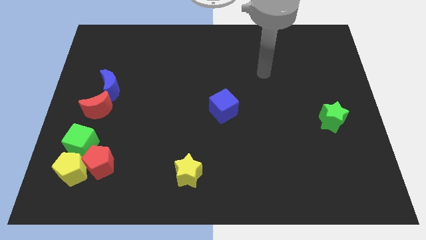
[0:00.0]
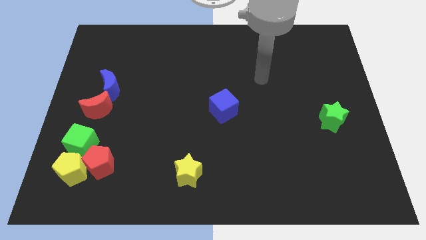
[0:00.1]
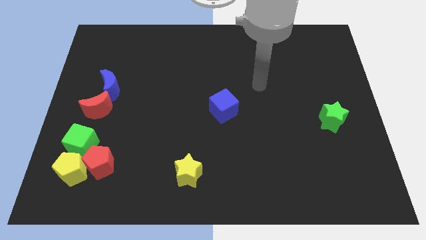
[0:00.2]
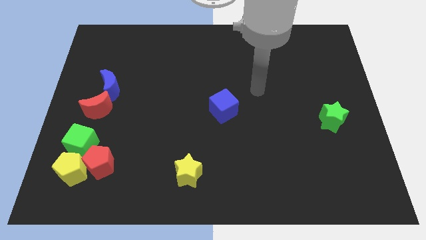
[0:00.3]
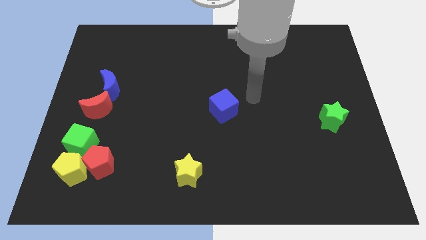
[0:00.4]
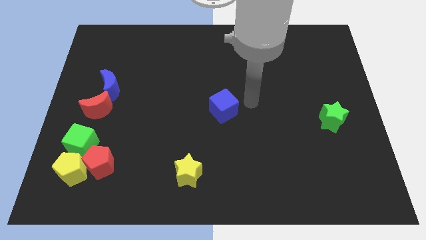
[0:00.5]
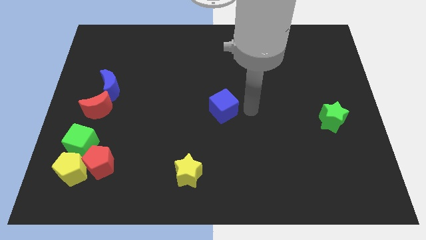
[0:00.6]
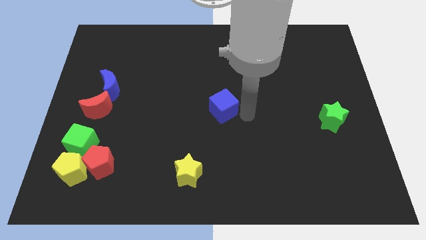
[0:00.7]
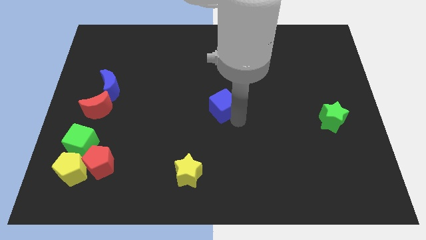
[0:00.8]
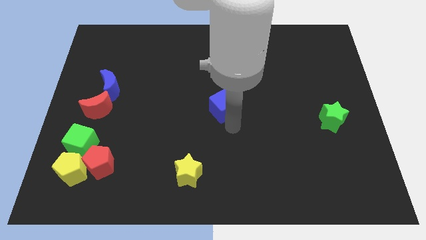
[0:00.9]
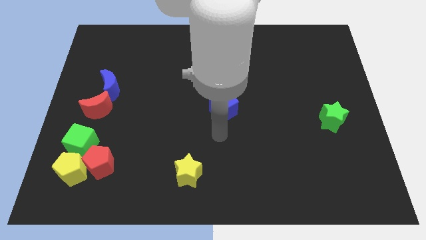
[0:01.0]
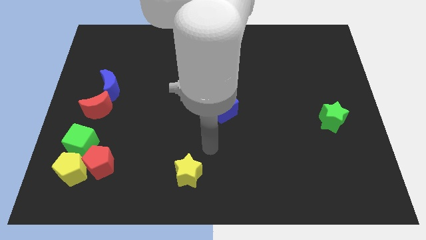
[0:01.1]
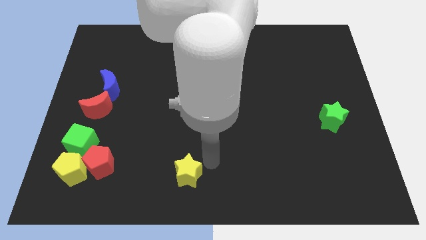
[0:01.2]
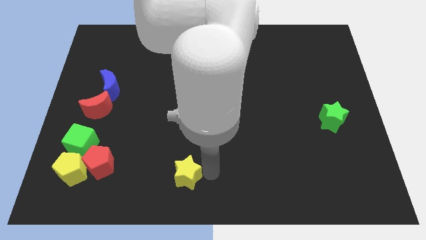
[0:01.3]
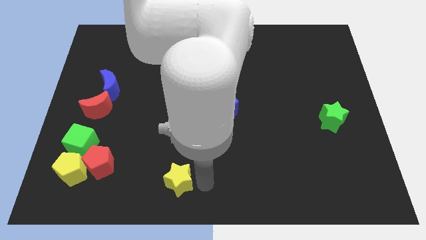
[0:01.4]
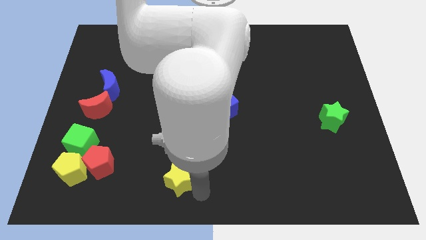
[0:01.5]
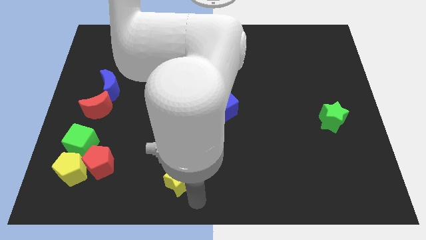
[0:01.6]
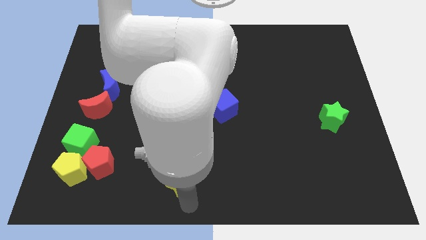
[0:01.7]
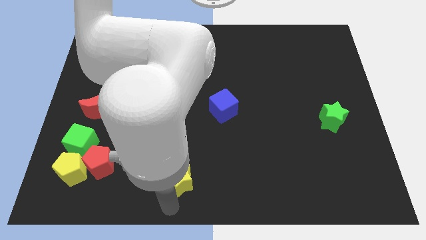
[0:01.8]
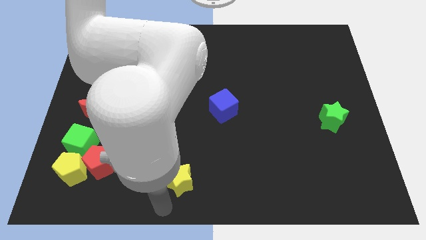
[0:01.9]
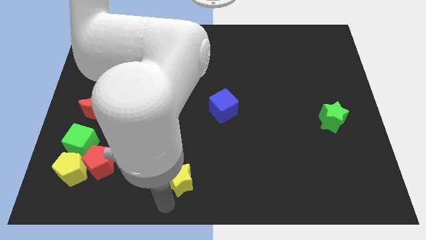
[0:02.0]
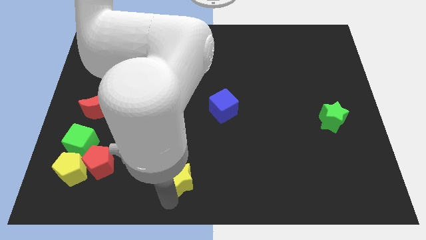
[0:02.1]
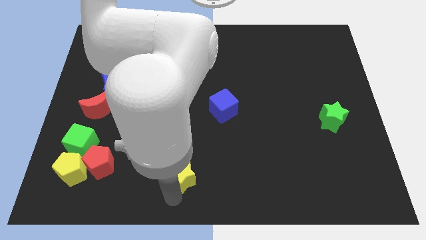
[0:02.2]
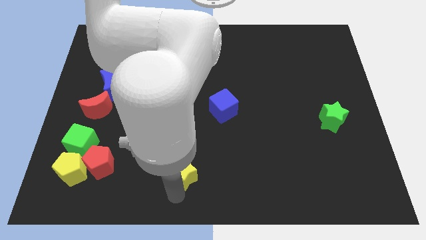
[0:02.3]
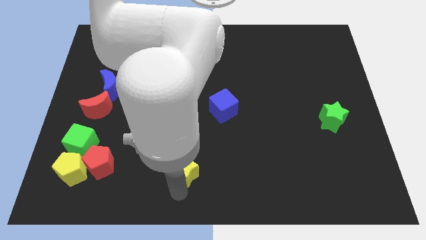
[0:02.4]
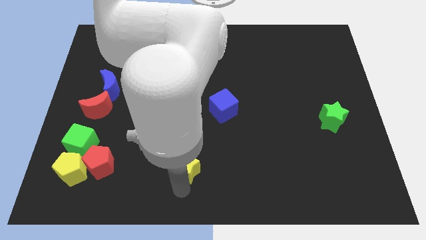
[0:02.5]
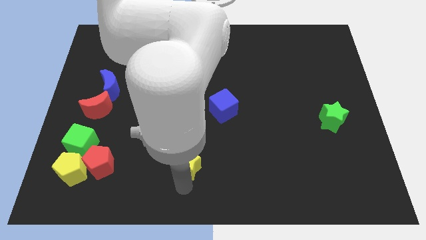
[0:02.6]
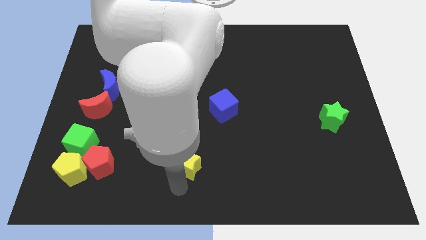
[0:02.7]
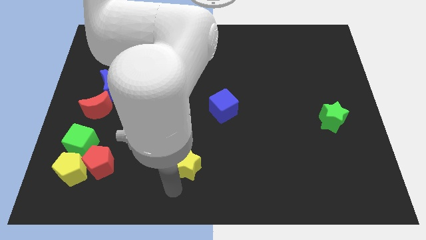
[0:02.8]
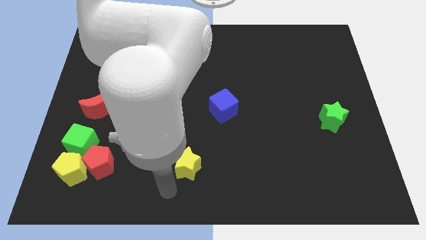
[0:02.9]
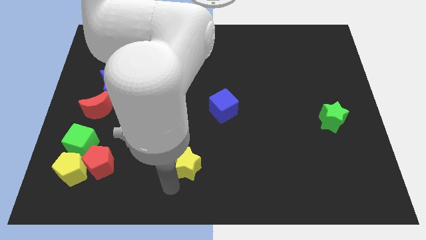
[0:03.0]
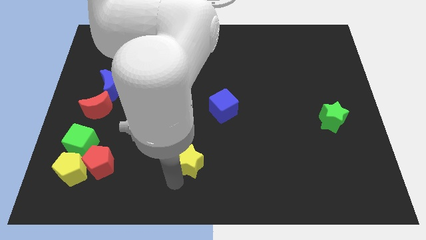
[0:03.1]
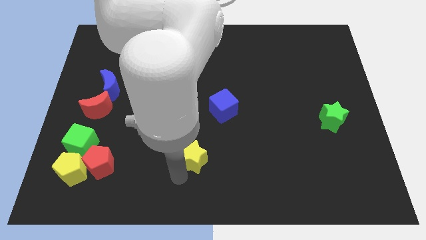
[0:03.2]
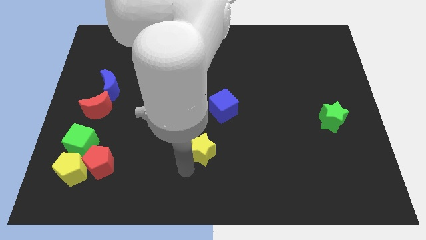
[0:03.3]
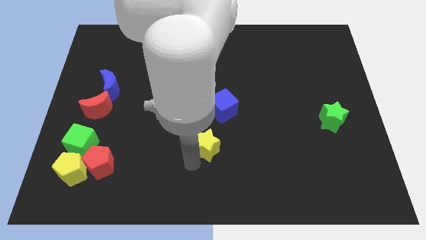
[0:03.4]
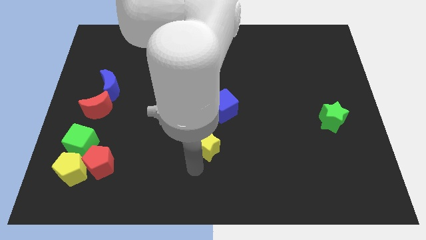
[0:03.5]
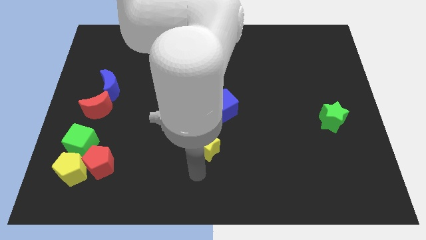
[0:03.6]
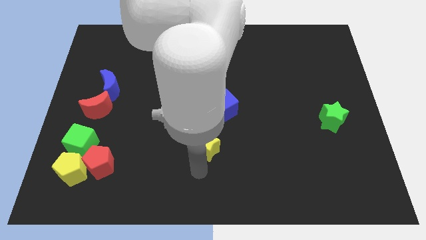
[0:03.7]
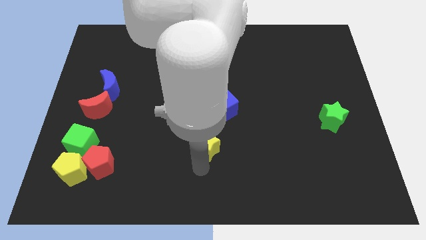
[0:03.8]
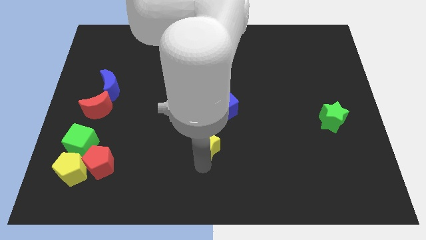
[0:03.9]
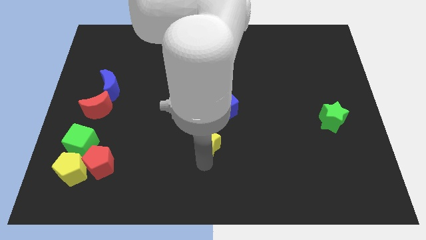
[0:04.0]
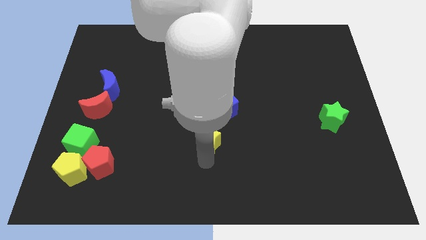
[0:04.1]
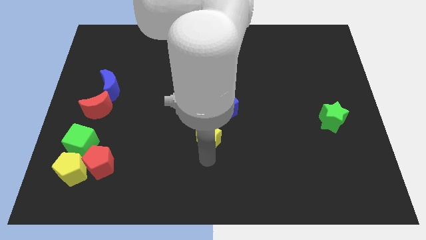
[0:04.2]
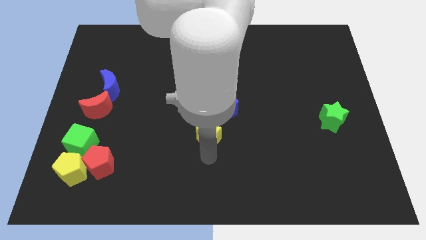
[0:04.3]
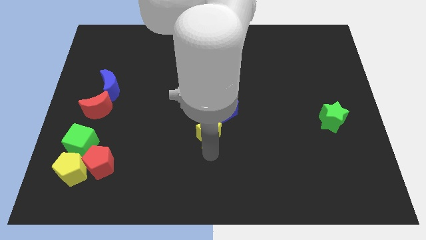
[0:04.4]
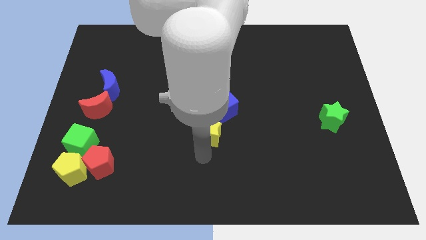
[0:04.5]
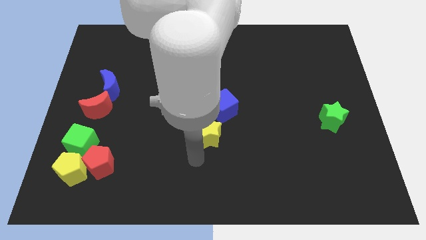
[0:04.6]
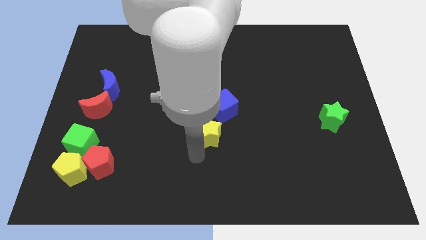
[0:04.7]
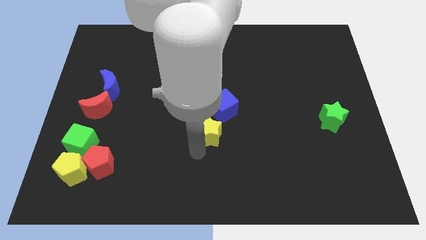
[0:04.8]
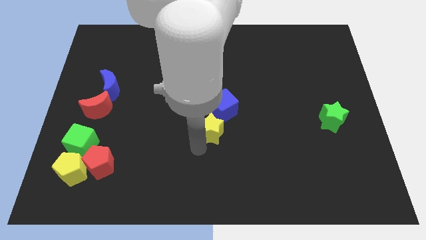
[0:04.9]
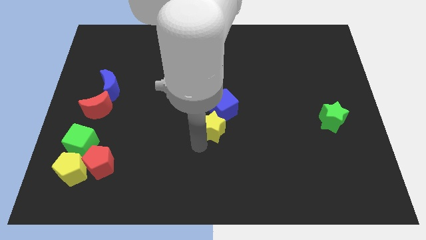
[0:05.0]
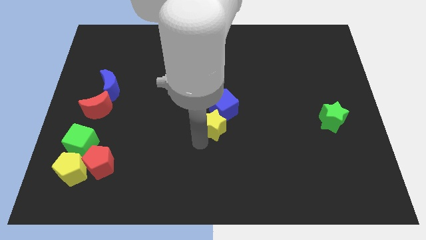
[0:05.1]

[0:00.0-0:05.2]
push the yellow star close to the blue cube

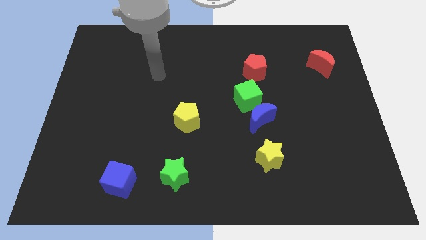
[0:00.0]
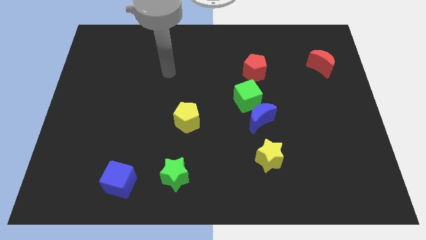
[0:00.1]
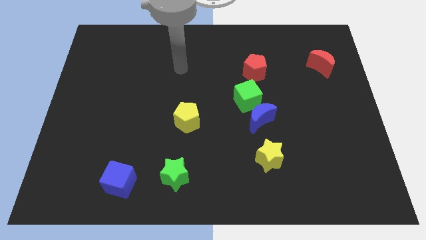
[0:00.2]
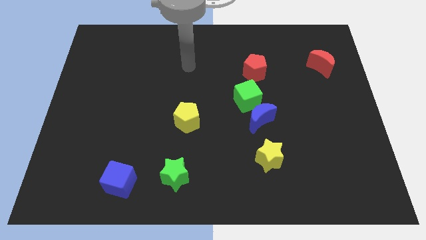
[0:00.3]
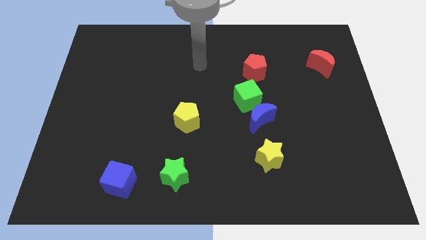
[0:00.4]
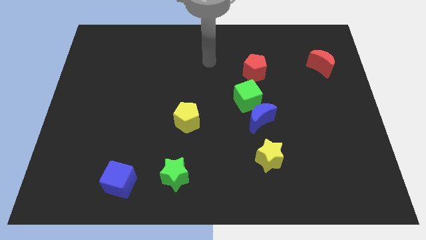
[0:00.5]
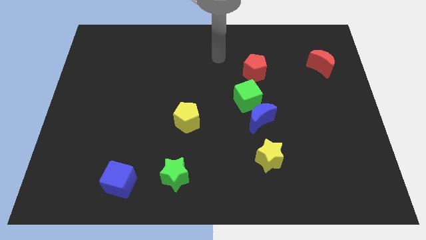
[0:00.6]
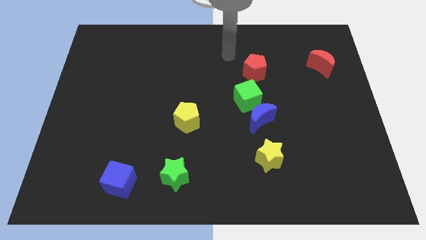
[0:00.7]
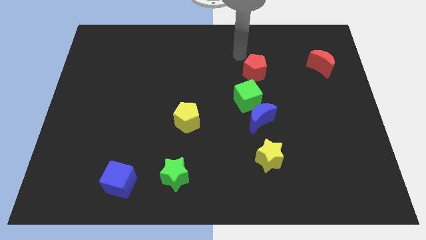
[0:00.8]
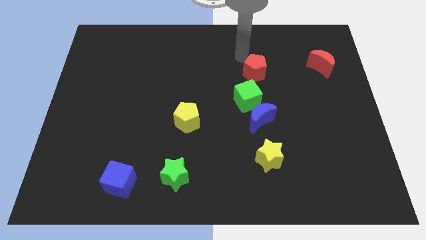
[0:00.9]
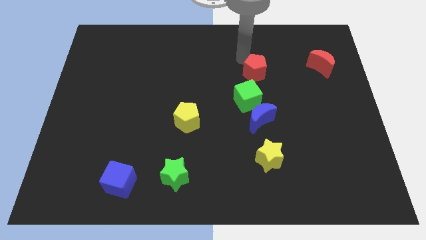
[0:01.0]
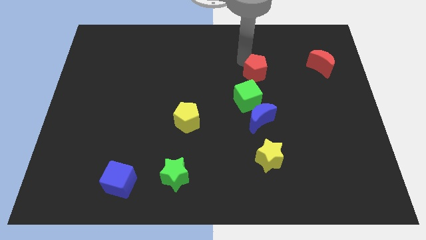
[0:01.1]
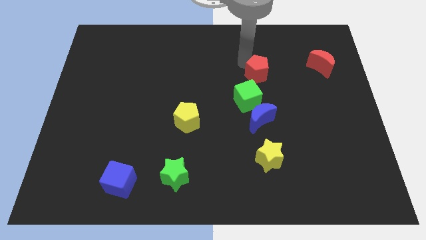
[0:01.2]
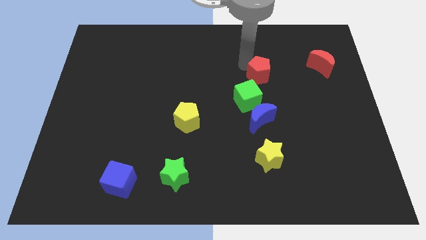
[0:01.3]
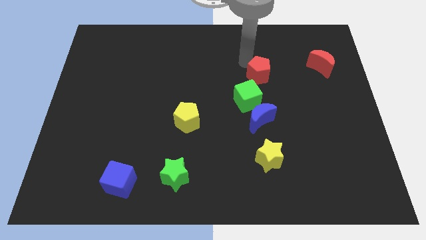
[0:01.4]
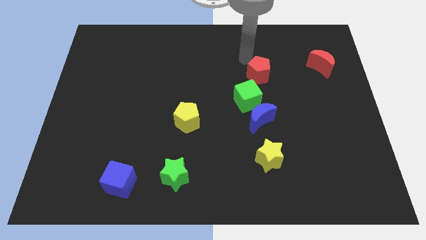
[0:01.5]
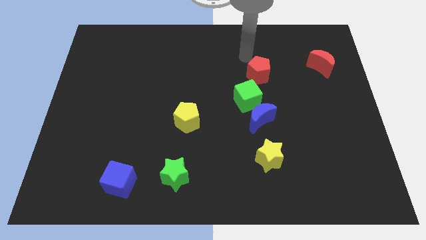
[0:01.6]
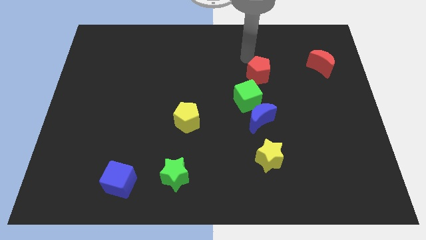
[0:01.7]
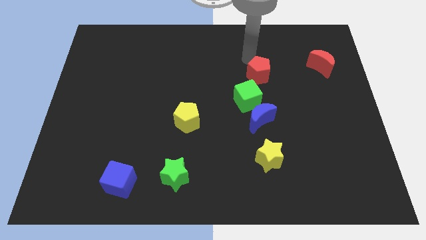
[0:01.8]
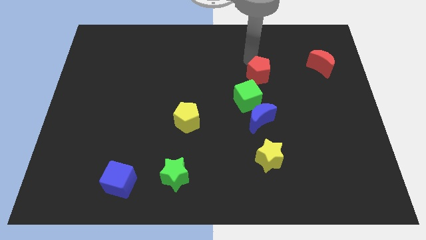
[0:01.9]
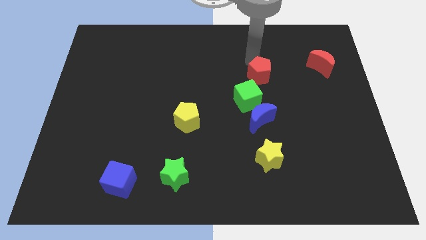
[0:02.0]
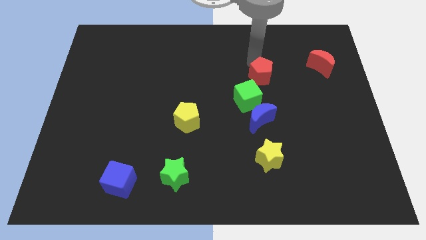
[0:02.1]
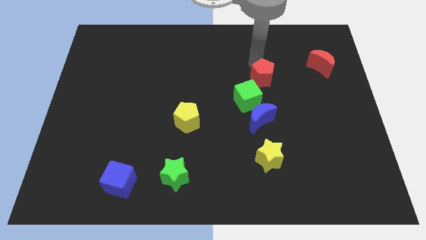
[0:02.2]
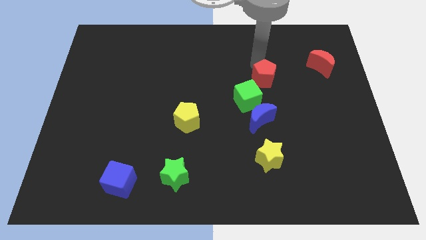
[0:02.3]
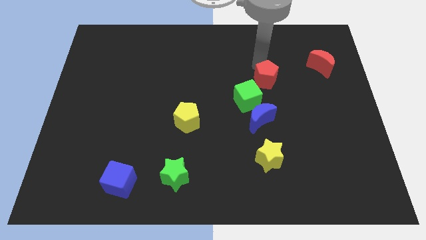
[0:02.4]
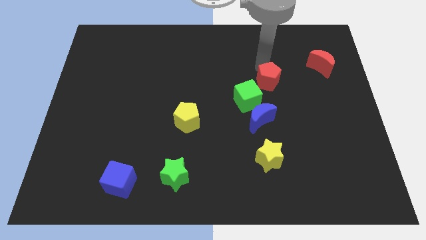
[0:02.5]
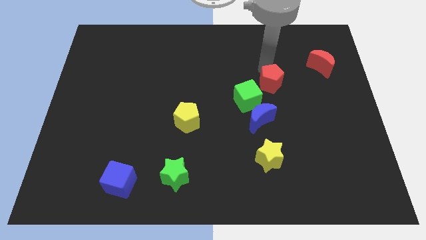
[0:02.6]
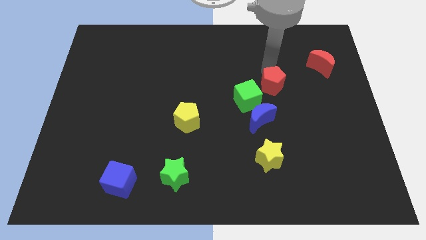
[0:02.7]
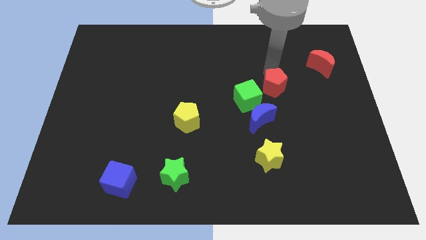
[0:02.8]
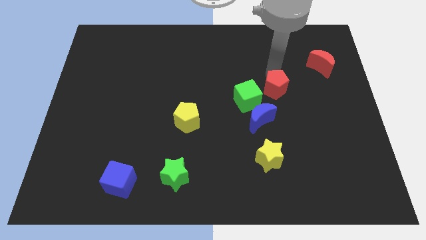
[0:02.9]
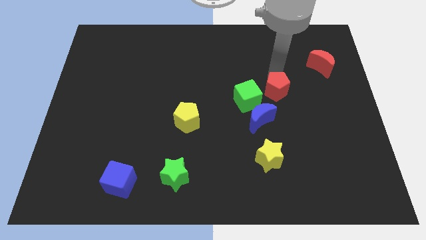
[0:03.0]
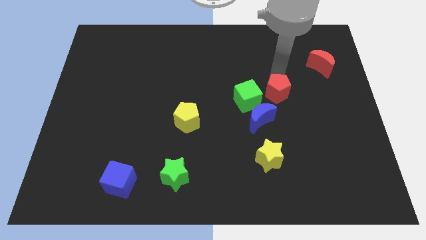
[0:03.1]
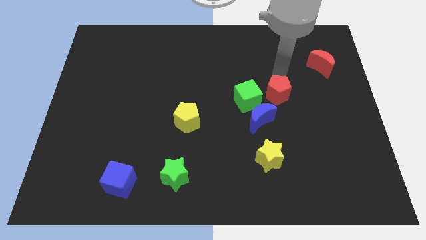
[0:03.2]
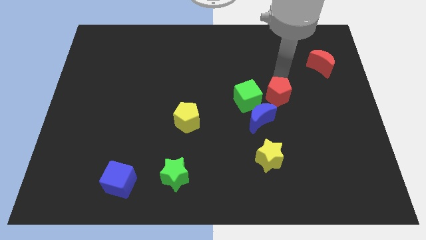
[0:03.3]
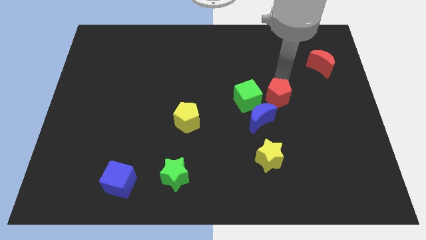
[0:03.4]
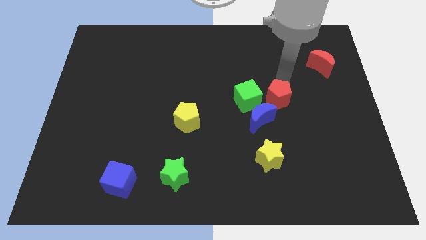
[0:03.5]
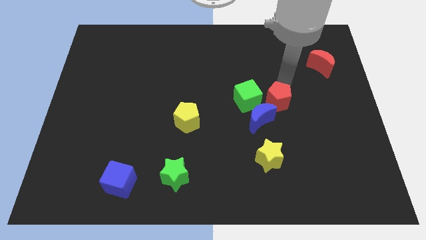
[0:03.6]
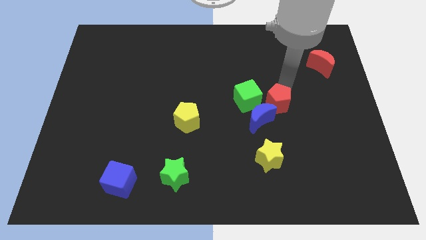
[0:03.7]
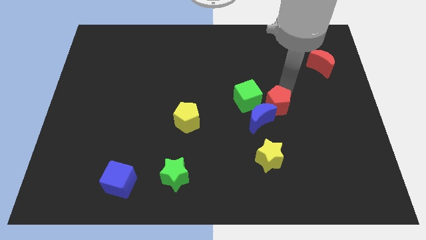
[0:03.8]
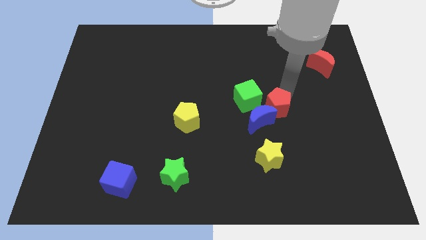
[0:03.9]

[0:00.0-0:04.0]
slide the red pentagon close to the blue moon
